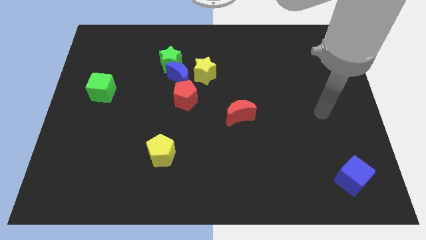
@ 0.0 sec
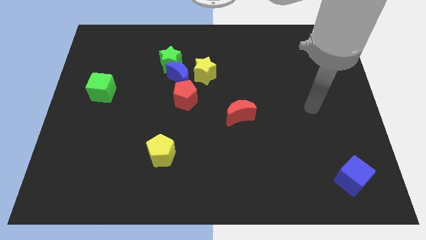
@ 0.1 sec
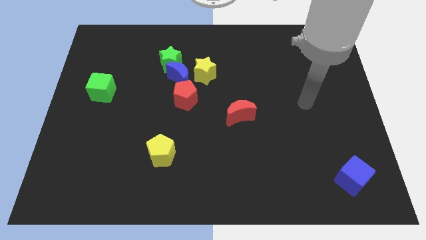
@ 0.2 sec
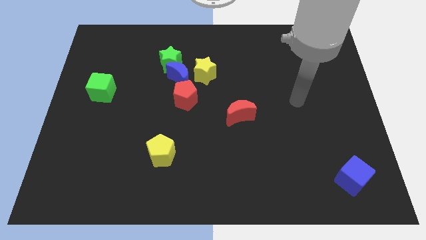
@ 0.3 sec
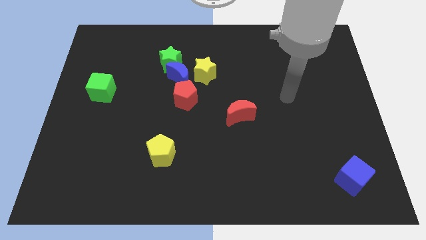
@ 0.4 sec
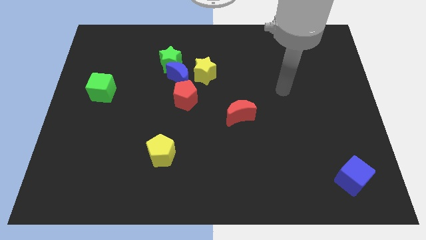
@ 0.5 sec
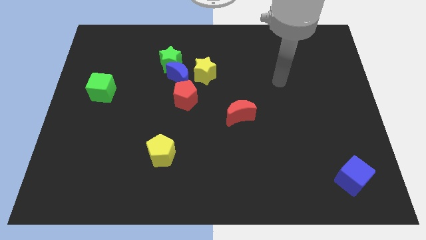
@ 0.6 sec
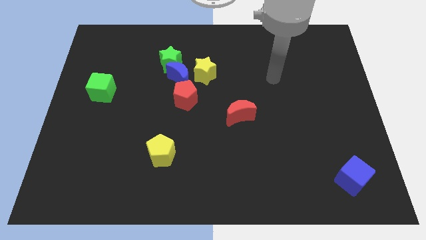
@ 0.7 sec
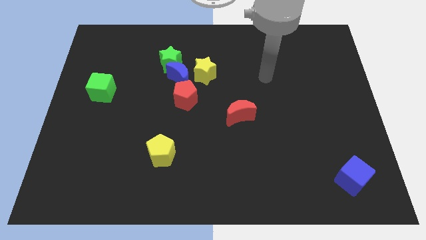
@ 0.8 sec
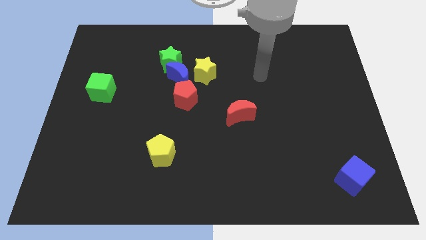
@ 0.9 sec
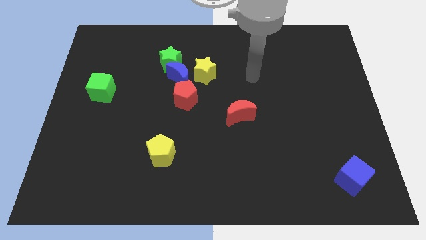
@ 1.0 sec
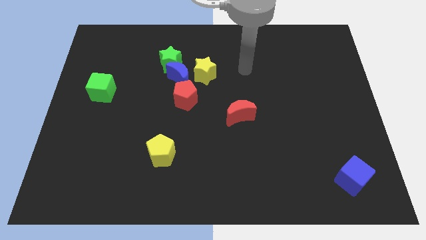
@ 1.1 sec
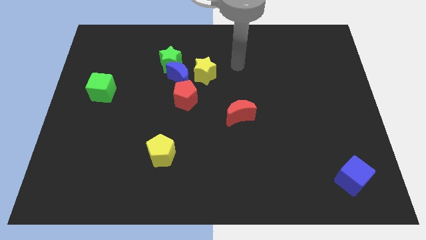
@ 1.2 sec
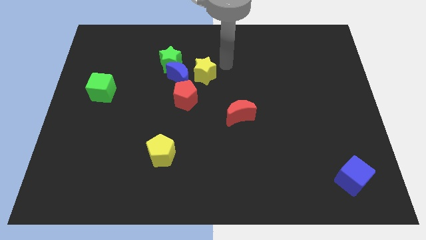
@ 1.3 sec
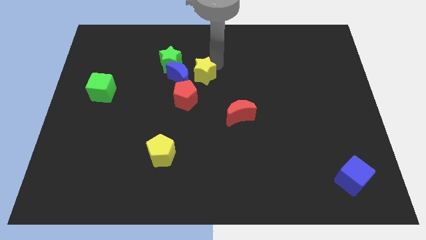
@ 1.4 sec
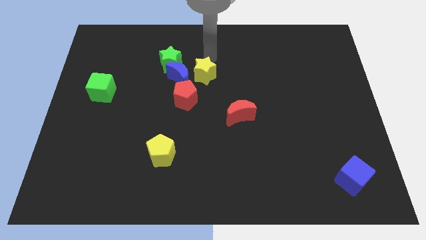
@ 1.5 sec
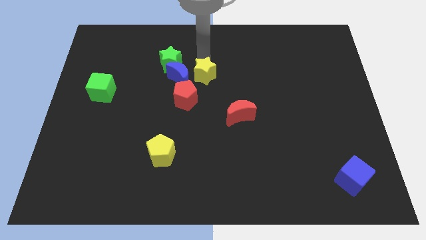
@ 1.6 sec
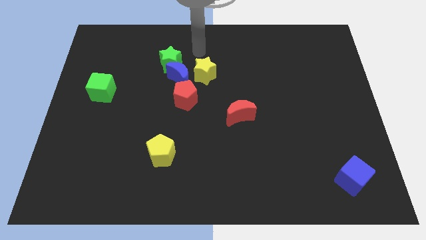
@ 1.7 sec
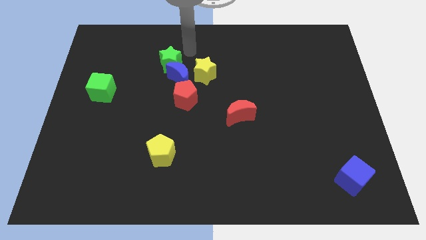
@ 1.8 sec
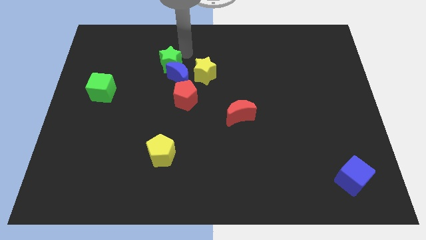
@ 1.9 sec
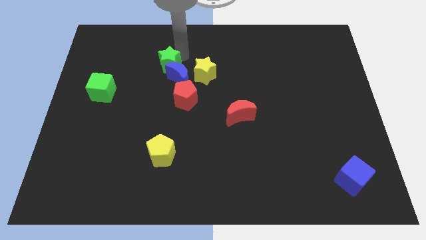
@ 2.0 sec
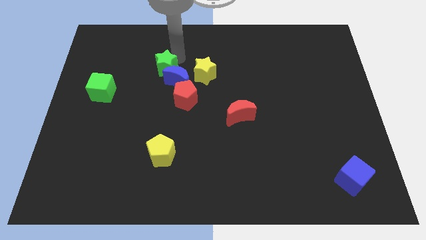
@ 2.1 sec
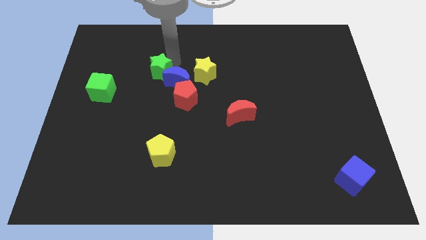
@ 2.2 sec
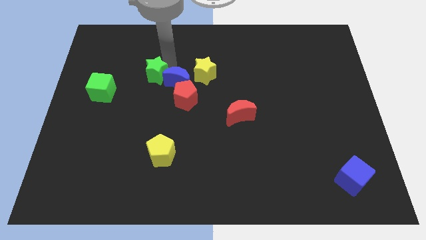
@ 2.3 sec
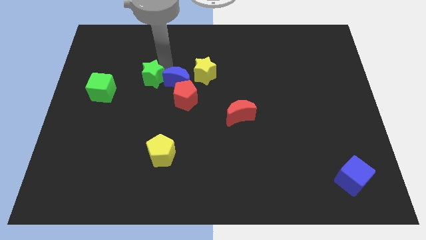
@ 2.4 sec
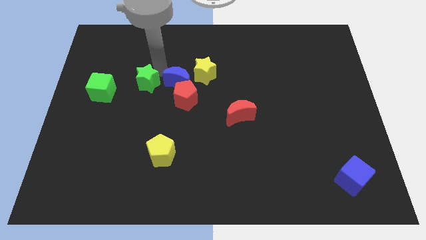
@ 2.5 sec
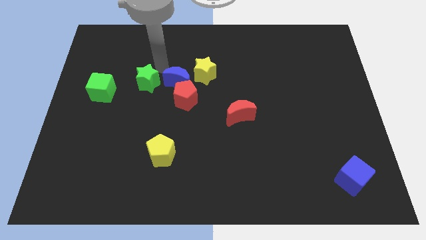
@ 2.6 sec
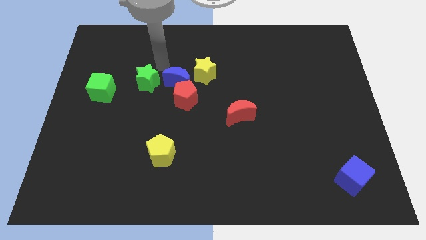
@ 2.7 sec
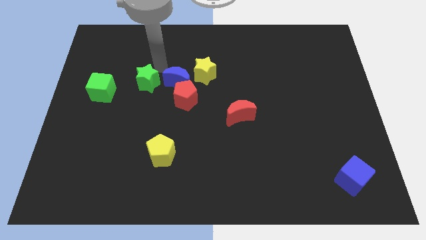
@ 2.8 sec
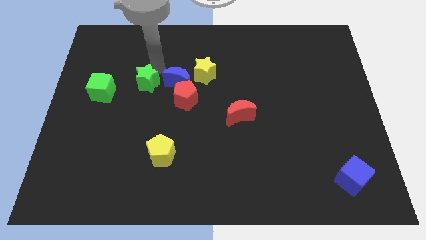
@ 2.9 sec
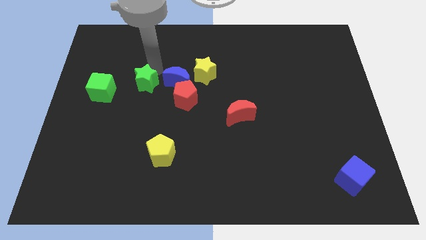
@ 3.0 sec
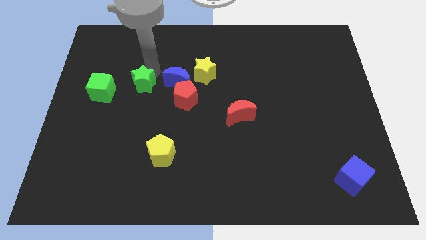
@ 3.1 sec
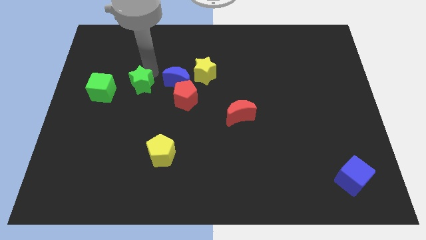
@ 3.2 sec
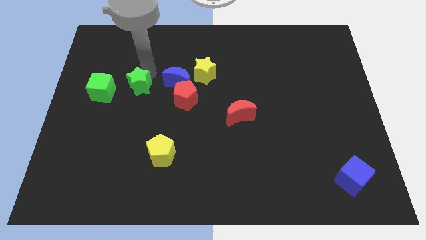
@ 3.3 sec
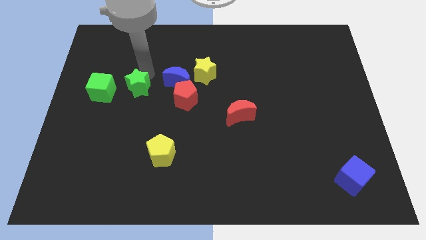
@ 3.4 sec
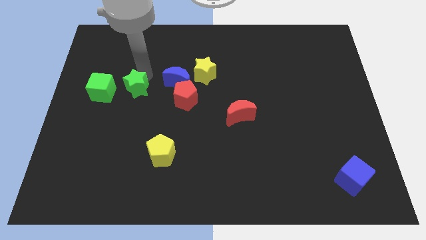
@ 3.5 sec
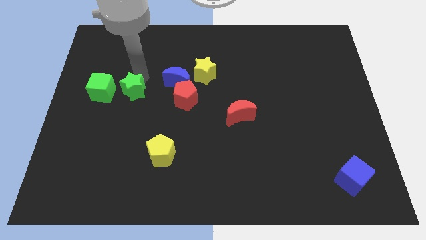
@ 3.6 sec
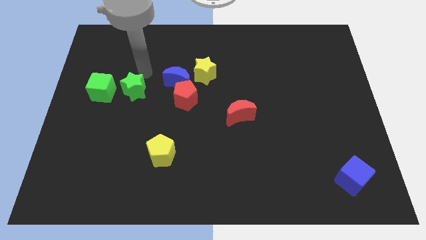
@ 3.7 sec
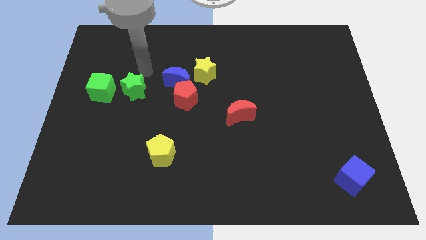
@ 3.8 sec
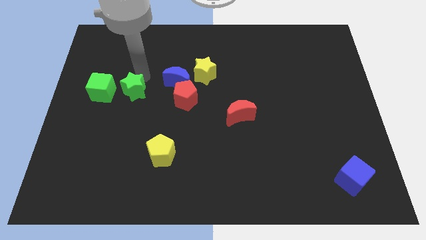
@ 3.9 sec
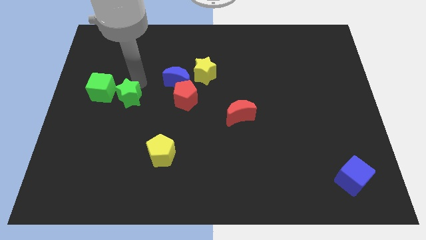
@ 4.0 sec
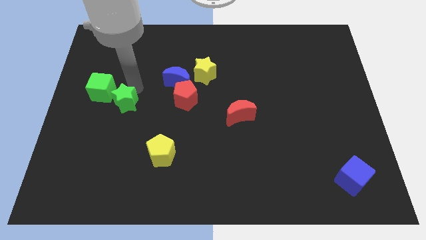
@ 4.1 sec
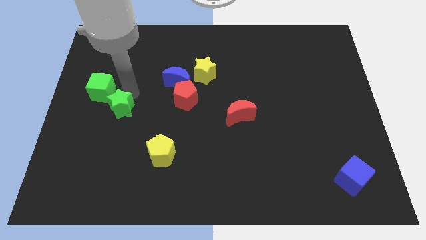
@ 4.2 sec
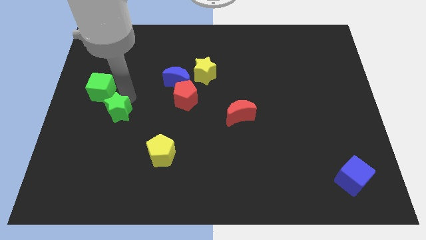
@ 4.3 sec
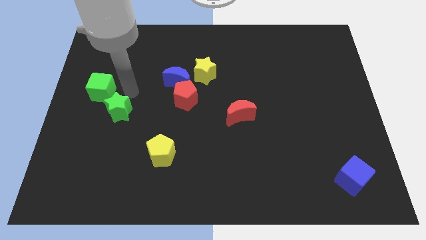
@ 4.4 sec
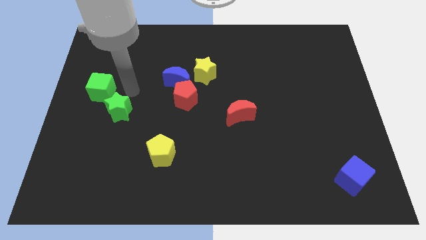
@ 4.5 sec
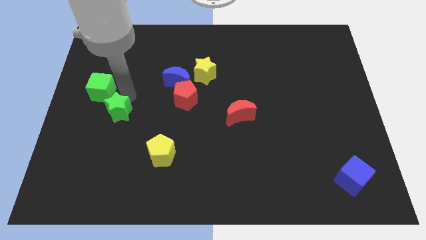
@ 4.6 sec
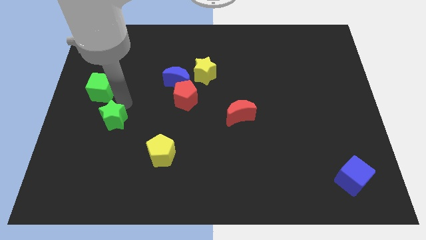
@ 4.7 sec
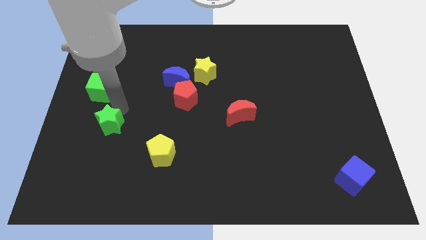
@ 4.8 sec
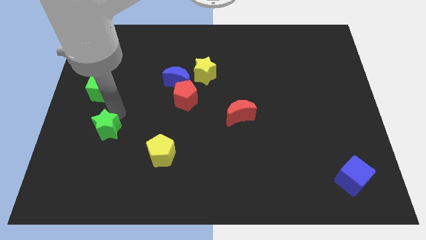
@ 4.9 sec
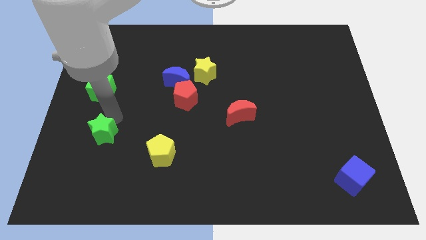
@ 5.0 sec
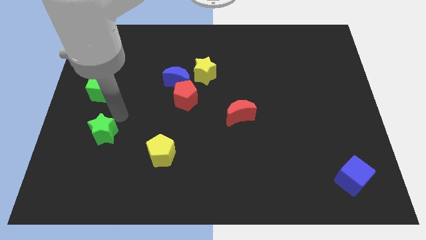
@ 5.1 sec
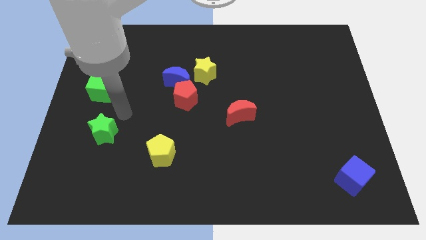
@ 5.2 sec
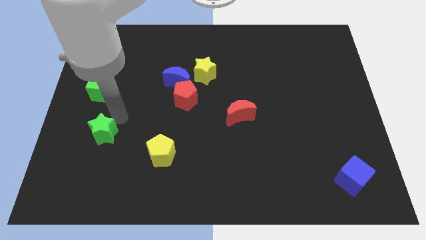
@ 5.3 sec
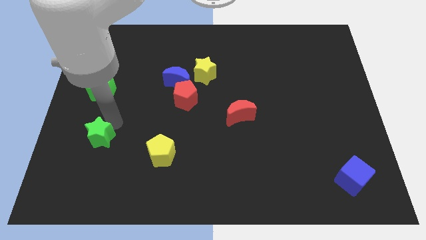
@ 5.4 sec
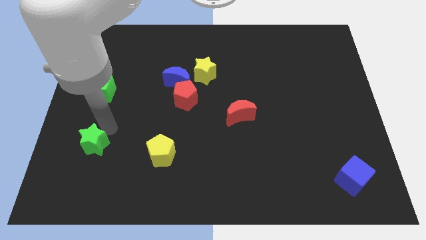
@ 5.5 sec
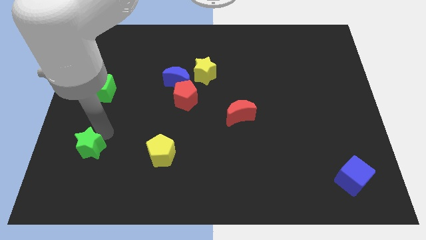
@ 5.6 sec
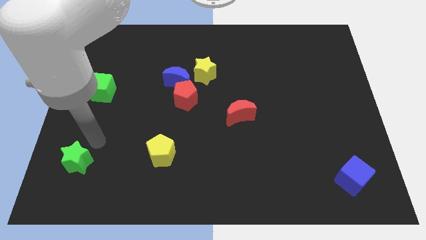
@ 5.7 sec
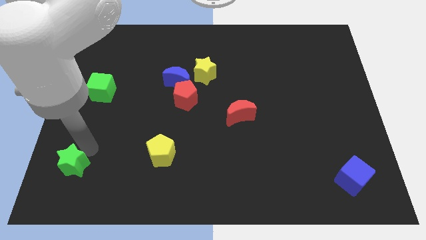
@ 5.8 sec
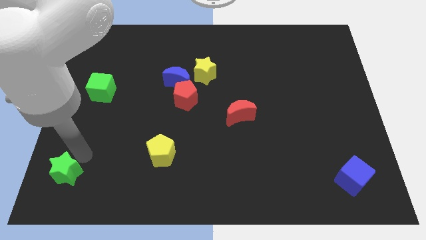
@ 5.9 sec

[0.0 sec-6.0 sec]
put the green star to the bottom left of the board

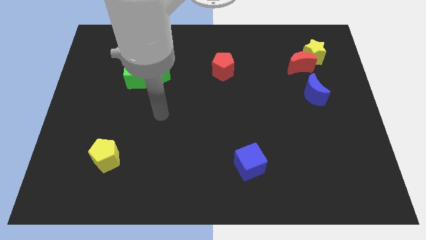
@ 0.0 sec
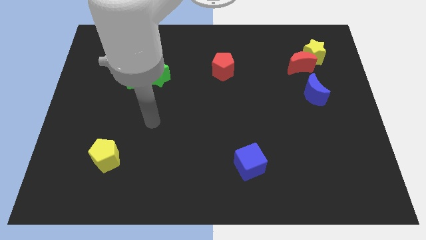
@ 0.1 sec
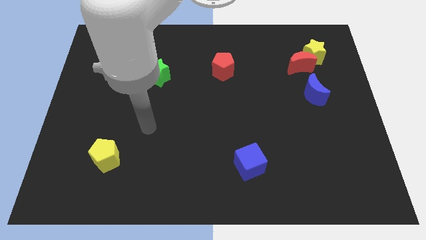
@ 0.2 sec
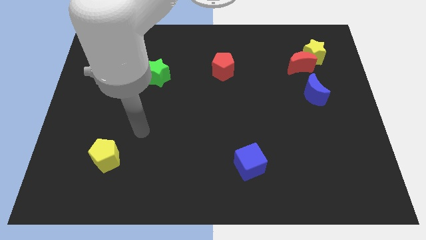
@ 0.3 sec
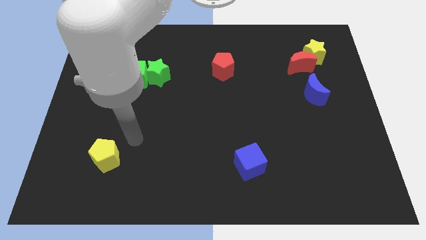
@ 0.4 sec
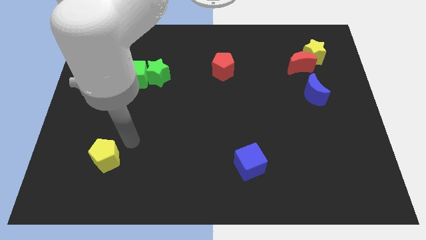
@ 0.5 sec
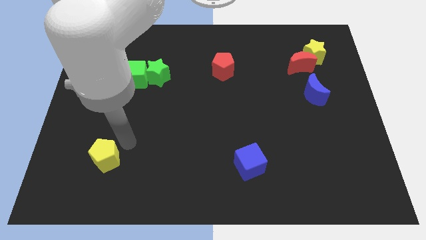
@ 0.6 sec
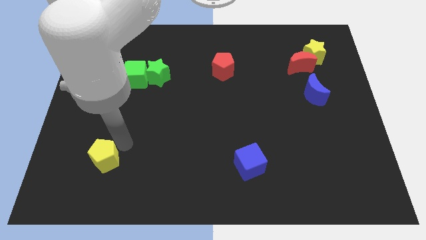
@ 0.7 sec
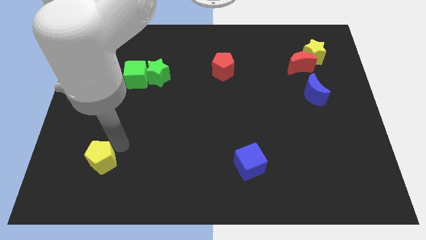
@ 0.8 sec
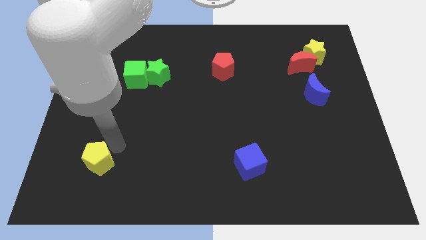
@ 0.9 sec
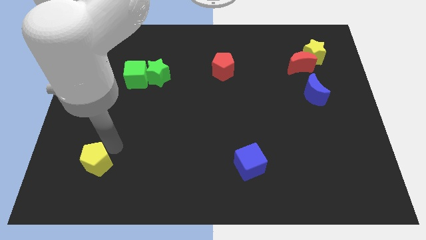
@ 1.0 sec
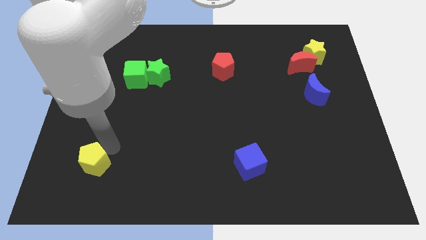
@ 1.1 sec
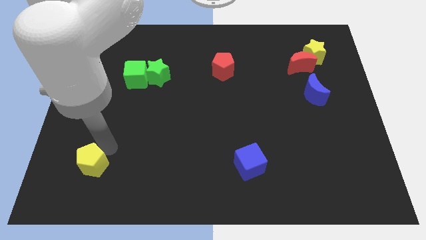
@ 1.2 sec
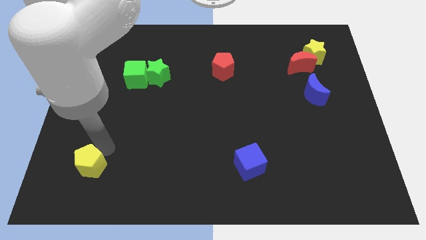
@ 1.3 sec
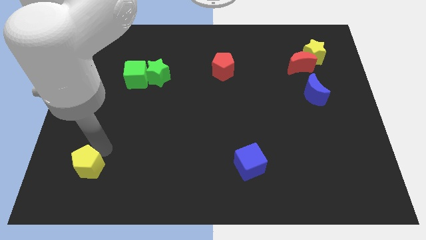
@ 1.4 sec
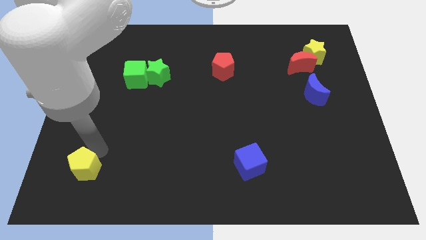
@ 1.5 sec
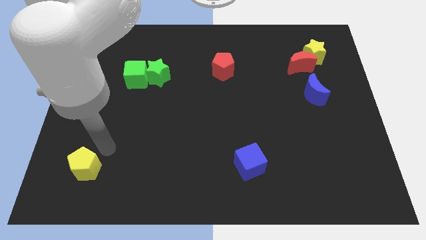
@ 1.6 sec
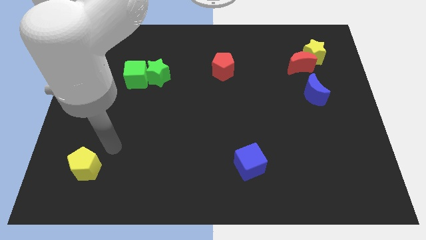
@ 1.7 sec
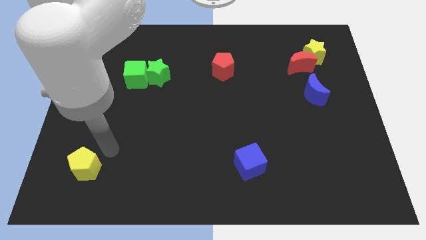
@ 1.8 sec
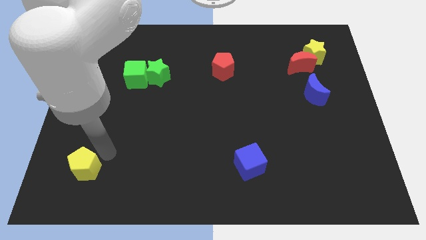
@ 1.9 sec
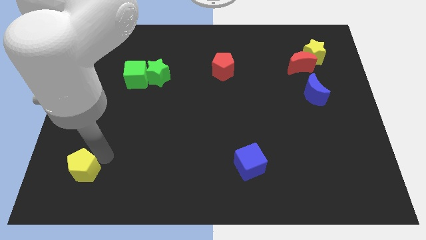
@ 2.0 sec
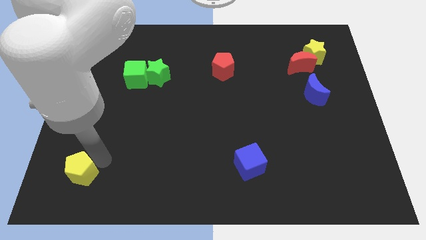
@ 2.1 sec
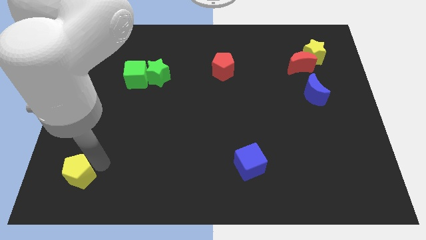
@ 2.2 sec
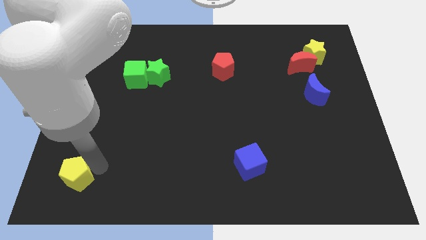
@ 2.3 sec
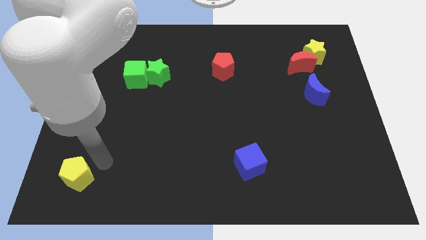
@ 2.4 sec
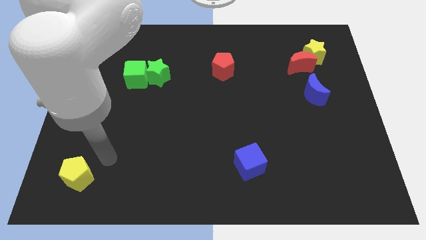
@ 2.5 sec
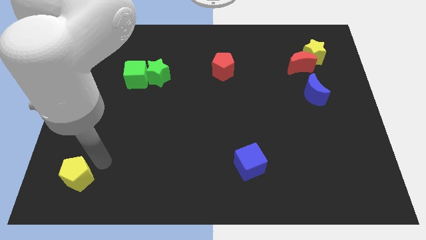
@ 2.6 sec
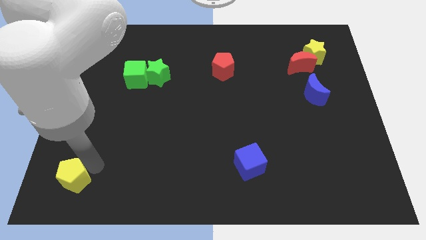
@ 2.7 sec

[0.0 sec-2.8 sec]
slide the yellow pentagon to the bottom left
